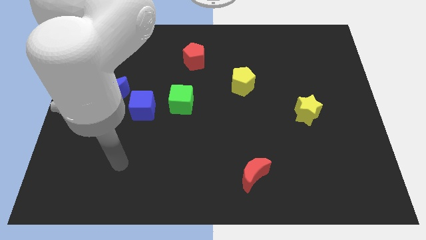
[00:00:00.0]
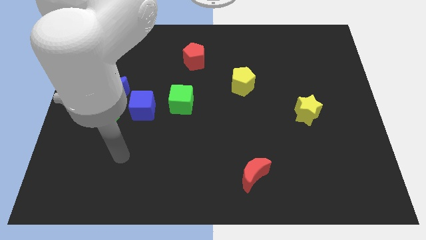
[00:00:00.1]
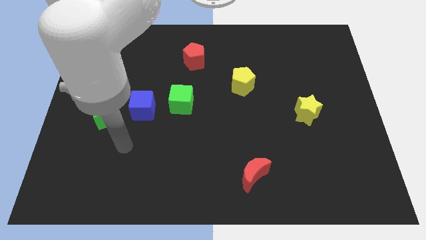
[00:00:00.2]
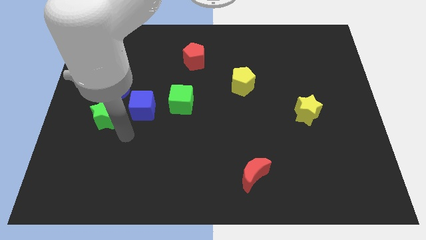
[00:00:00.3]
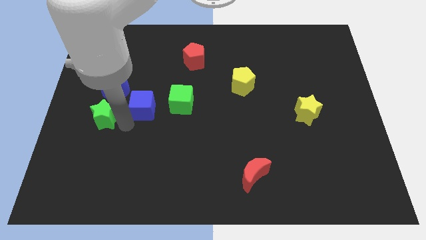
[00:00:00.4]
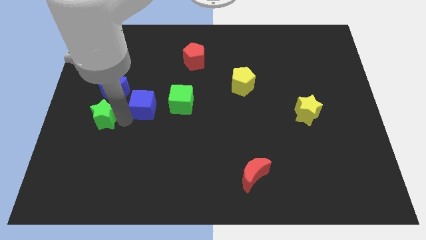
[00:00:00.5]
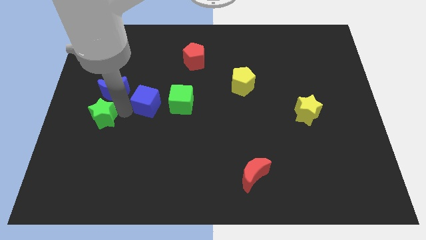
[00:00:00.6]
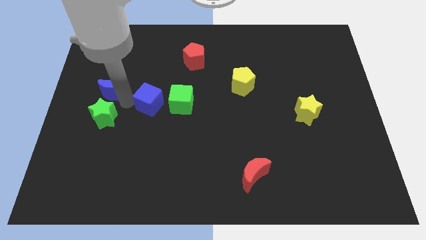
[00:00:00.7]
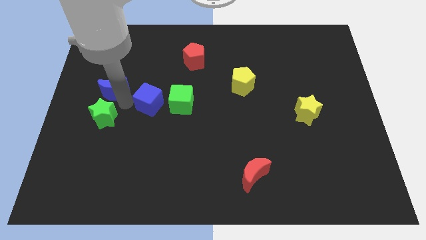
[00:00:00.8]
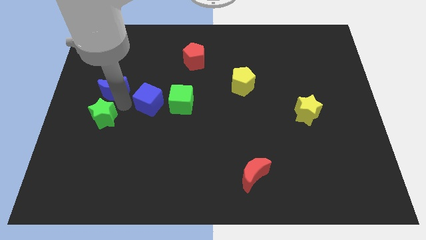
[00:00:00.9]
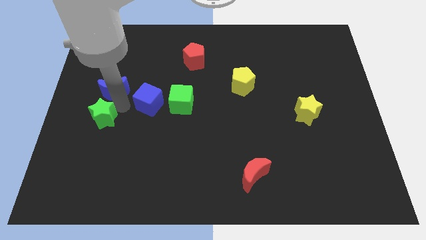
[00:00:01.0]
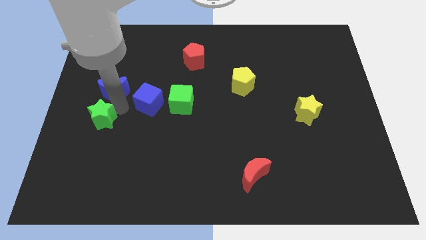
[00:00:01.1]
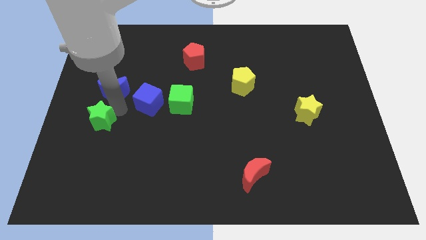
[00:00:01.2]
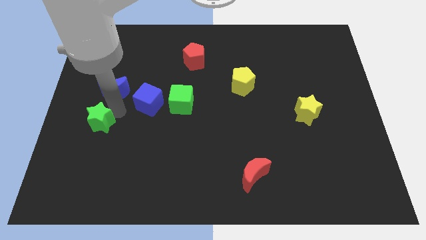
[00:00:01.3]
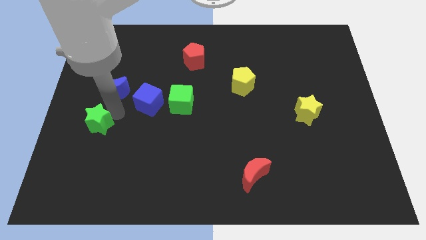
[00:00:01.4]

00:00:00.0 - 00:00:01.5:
pull the green star apart from the blue moon and blue cube

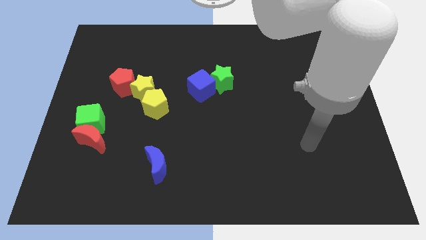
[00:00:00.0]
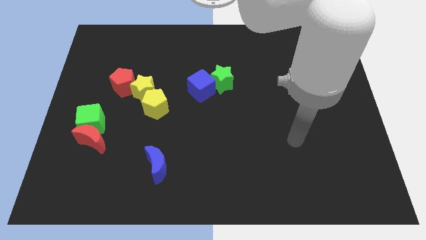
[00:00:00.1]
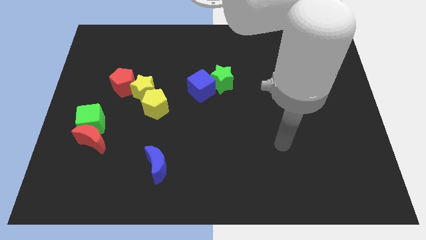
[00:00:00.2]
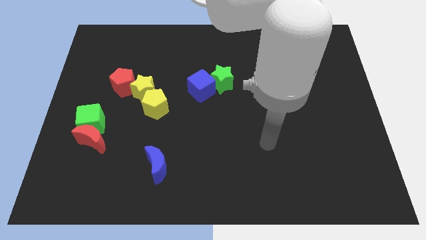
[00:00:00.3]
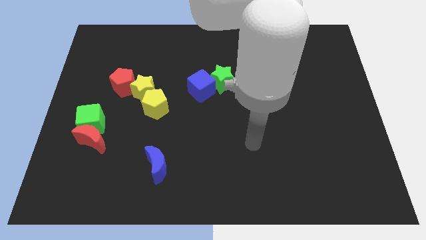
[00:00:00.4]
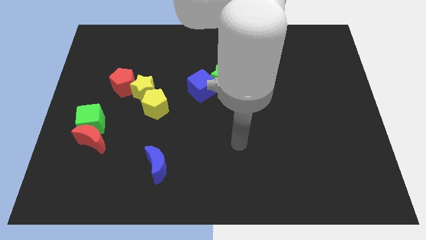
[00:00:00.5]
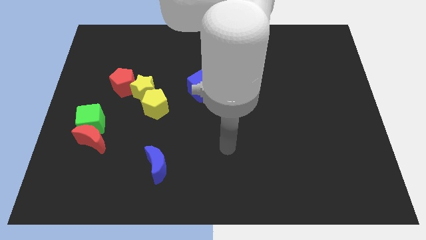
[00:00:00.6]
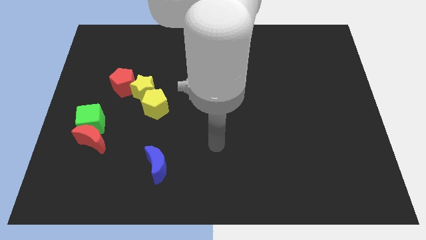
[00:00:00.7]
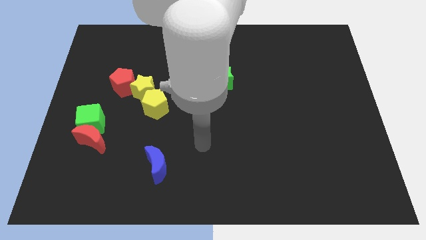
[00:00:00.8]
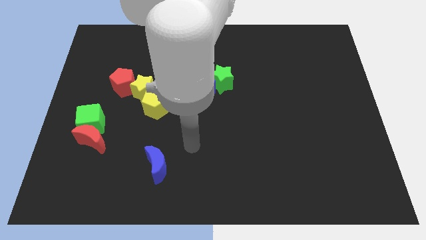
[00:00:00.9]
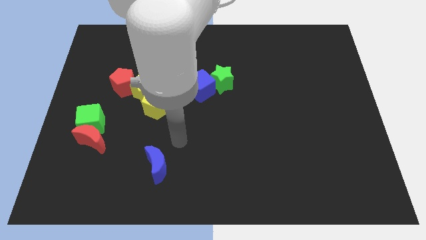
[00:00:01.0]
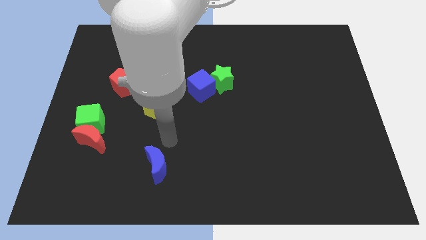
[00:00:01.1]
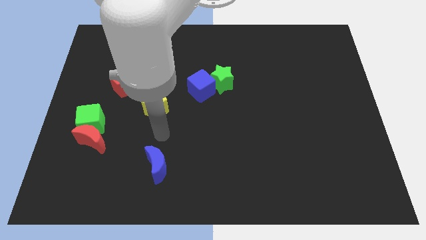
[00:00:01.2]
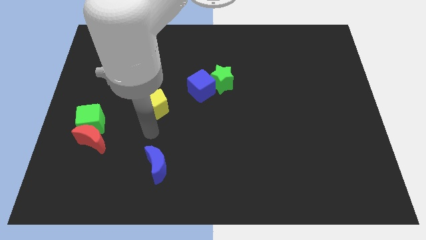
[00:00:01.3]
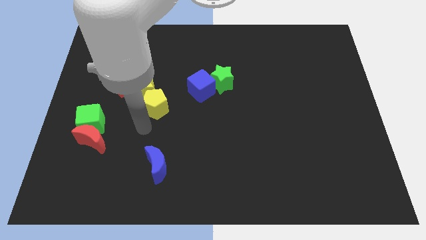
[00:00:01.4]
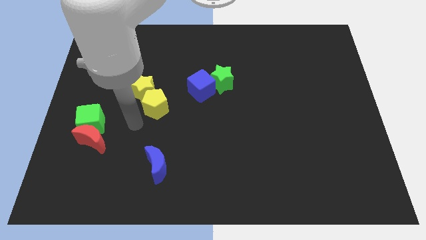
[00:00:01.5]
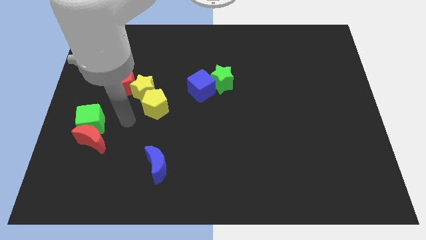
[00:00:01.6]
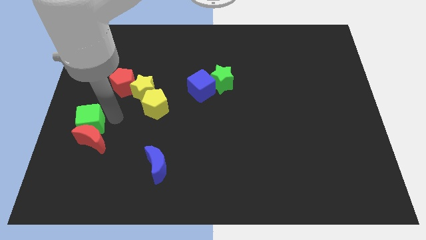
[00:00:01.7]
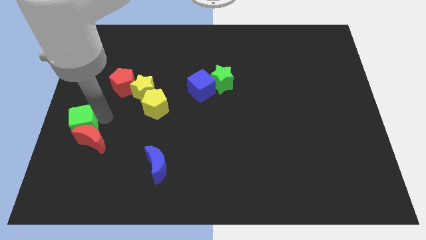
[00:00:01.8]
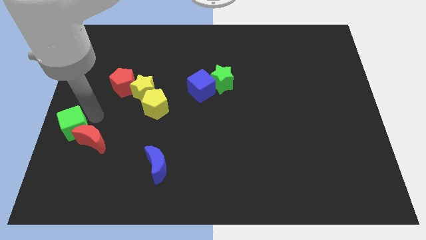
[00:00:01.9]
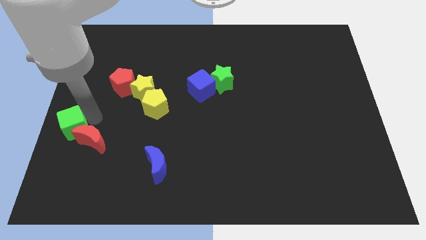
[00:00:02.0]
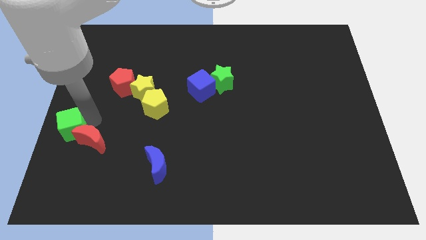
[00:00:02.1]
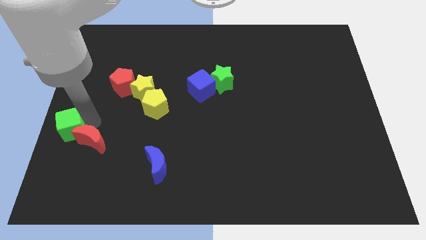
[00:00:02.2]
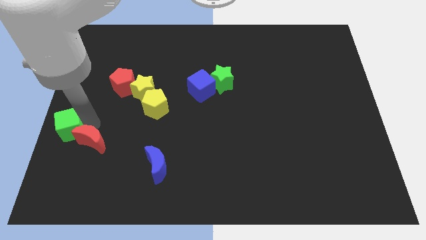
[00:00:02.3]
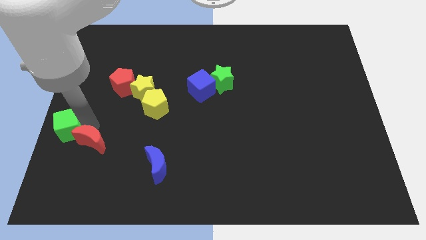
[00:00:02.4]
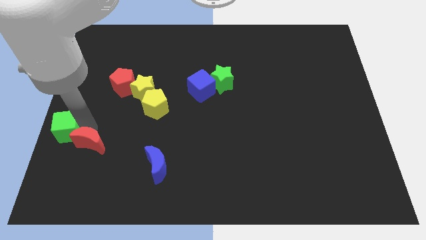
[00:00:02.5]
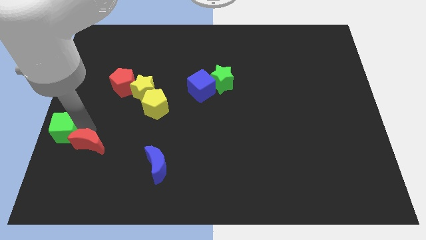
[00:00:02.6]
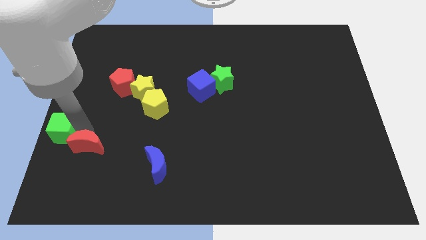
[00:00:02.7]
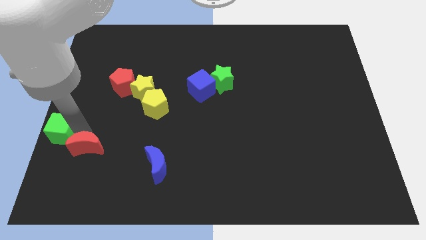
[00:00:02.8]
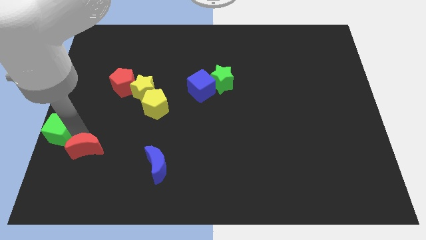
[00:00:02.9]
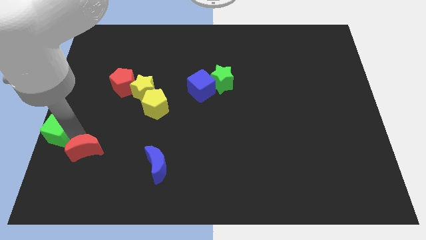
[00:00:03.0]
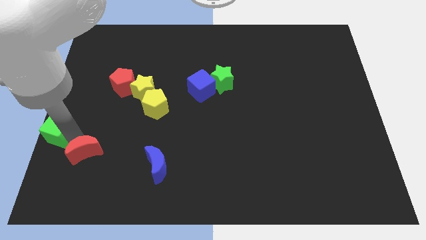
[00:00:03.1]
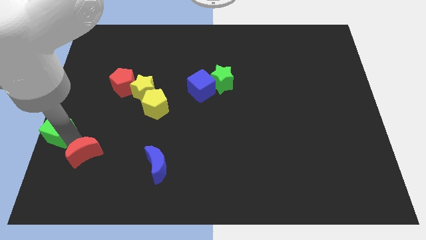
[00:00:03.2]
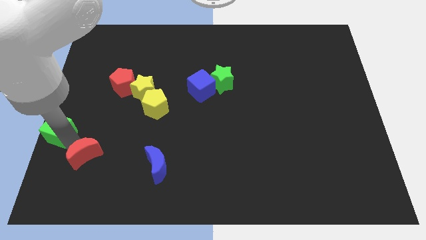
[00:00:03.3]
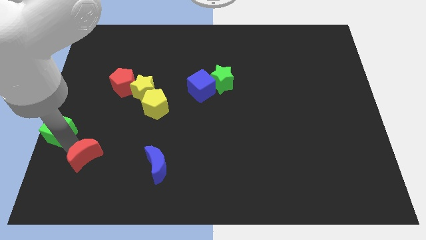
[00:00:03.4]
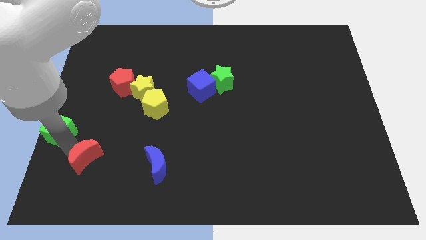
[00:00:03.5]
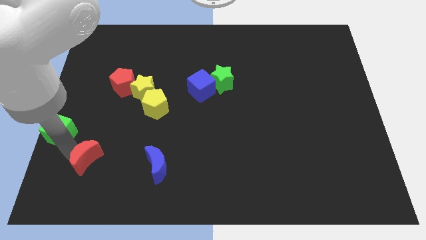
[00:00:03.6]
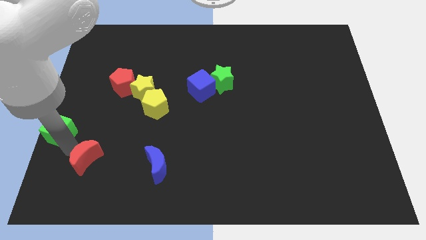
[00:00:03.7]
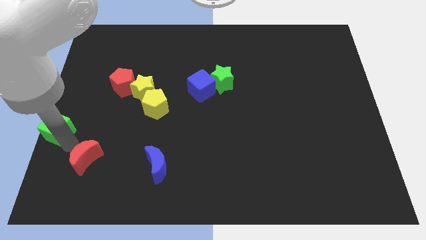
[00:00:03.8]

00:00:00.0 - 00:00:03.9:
separate the red moon from the green cube

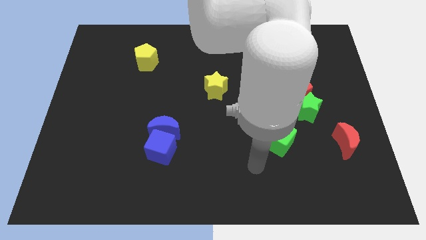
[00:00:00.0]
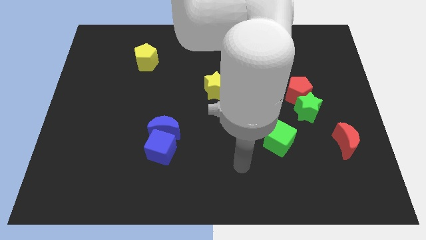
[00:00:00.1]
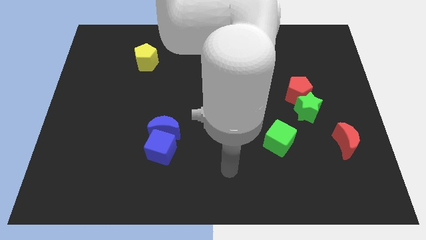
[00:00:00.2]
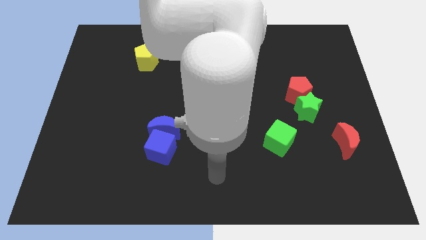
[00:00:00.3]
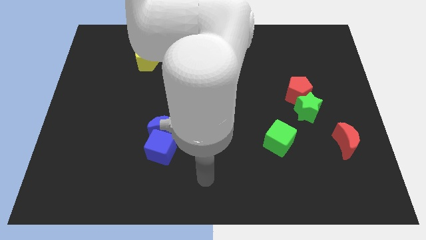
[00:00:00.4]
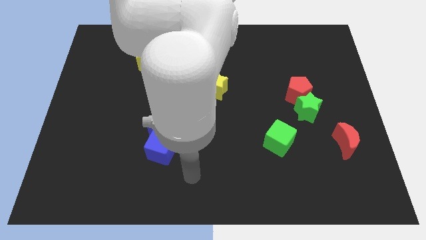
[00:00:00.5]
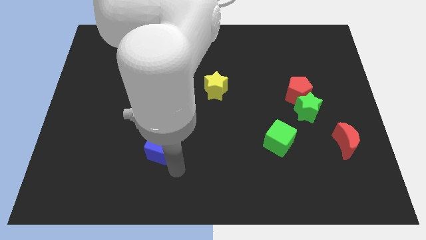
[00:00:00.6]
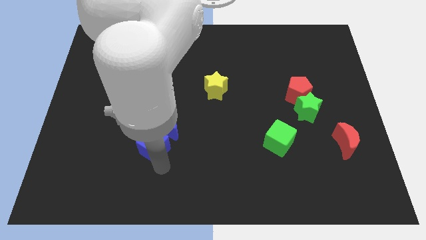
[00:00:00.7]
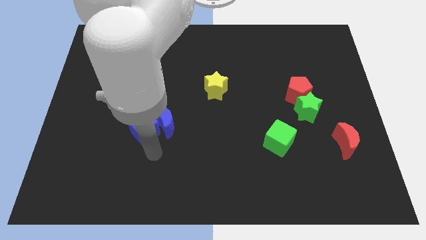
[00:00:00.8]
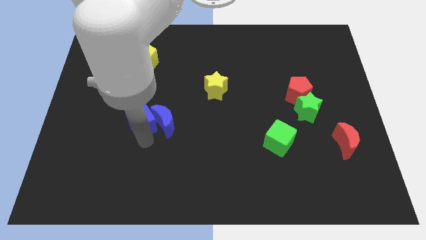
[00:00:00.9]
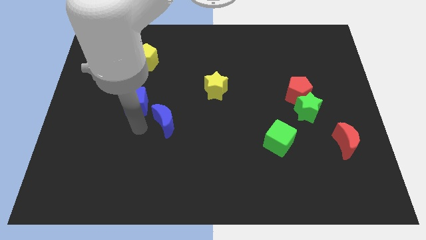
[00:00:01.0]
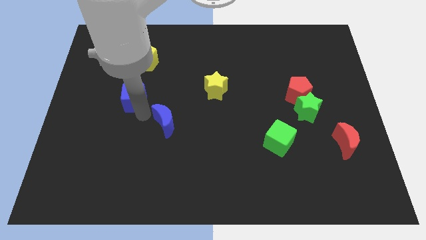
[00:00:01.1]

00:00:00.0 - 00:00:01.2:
move the blue moon away from the blue cube

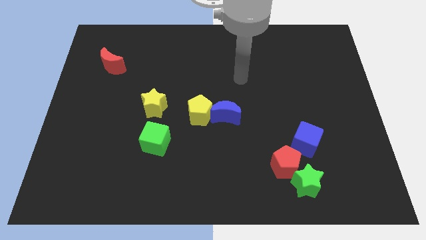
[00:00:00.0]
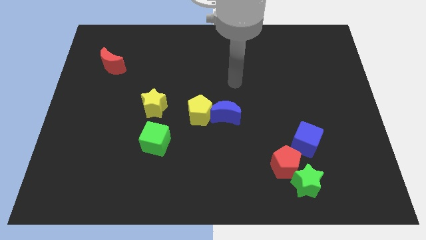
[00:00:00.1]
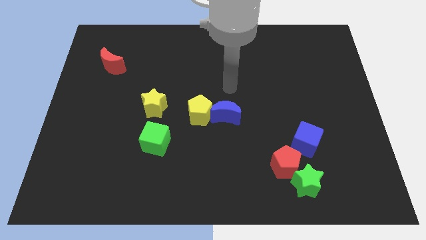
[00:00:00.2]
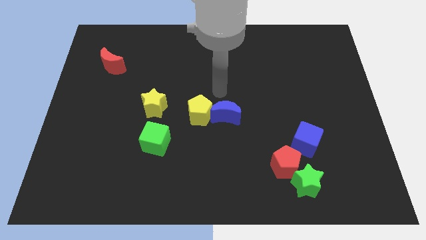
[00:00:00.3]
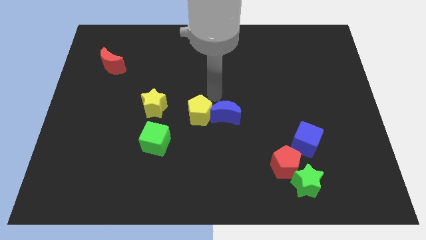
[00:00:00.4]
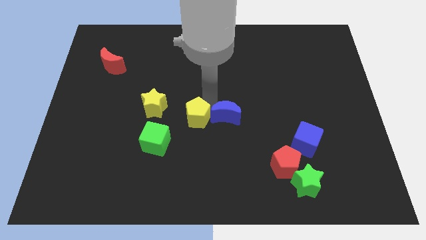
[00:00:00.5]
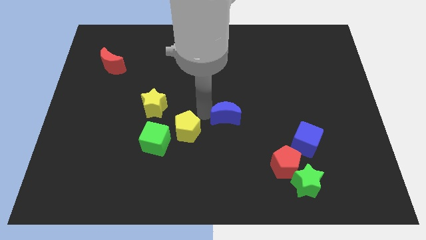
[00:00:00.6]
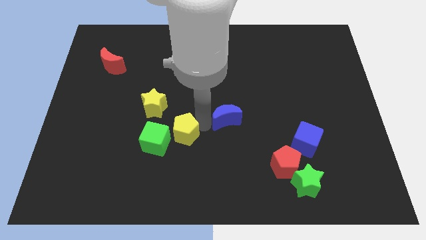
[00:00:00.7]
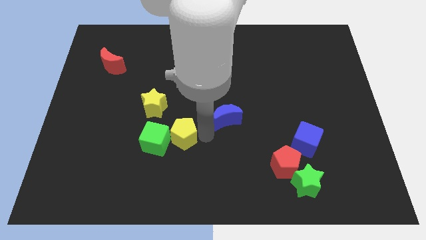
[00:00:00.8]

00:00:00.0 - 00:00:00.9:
pull the blue moon apart from the yellow pentagon

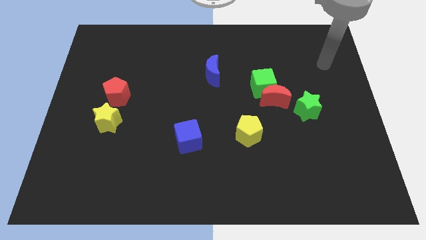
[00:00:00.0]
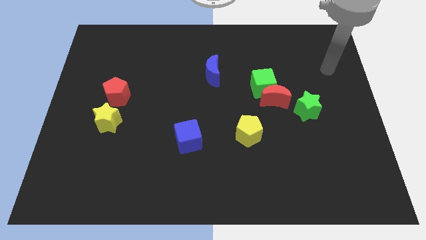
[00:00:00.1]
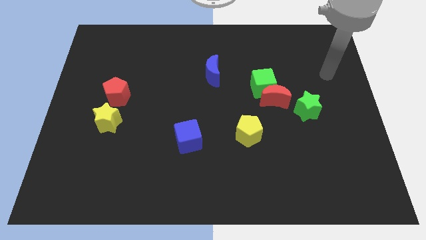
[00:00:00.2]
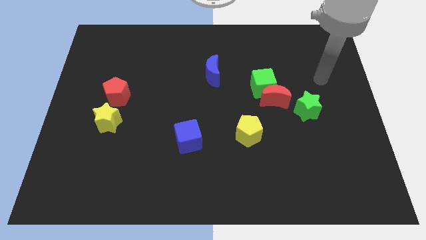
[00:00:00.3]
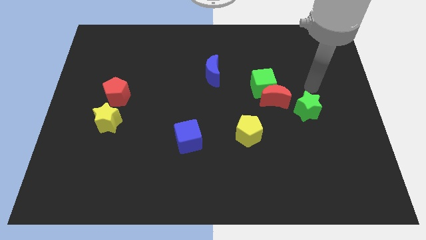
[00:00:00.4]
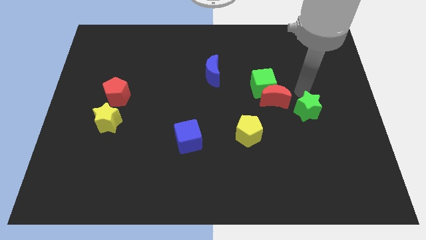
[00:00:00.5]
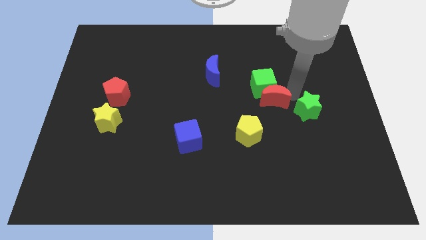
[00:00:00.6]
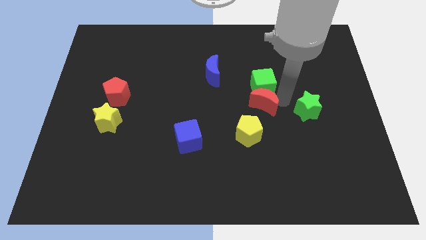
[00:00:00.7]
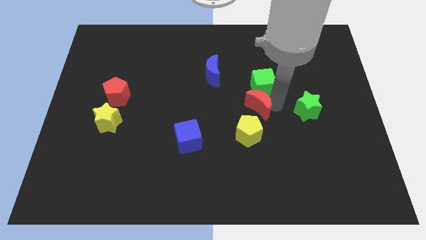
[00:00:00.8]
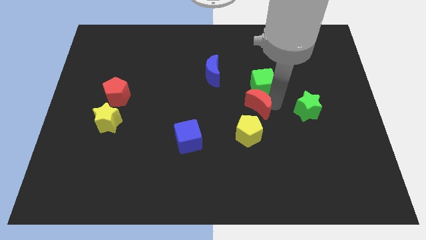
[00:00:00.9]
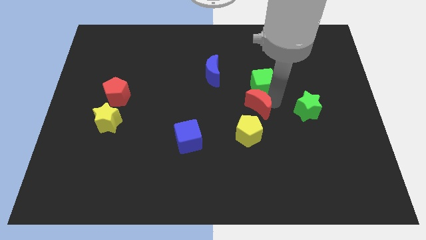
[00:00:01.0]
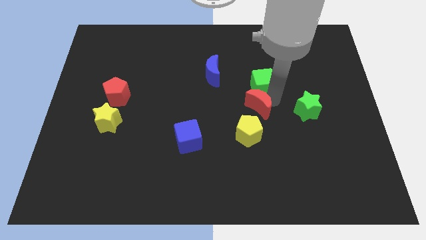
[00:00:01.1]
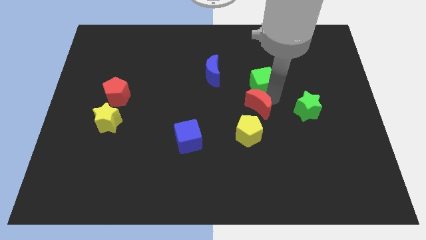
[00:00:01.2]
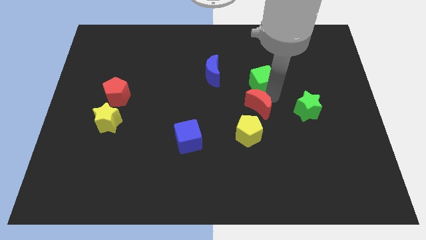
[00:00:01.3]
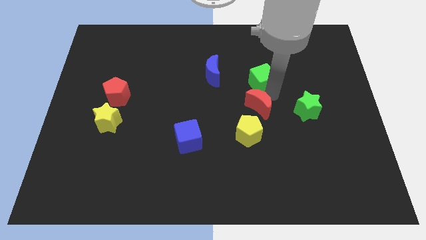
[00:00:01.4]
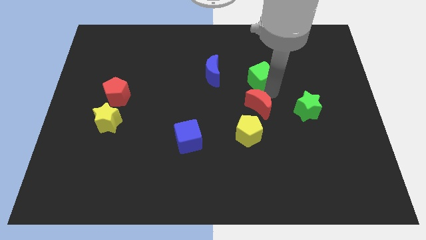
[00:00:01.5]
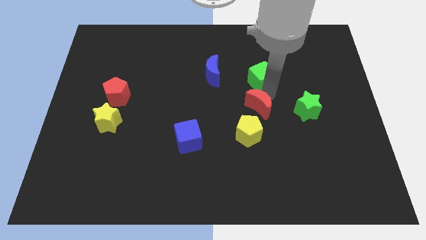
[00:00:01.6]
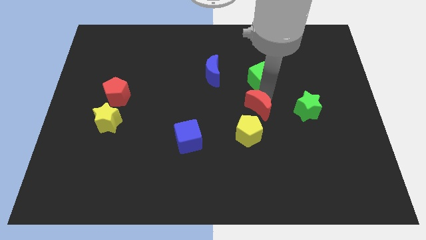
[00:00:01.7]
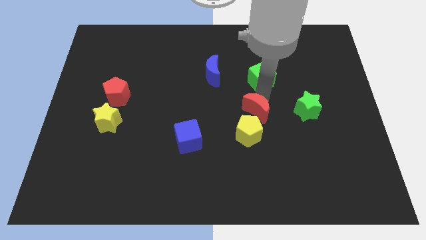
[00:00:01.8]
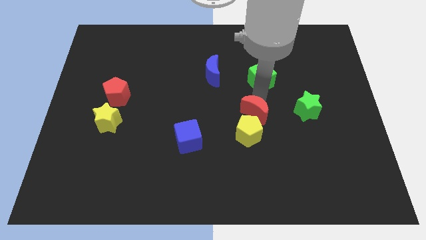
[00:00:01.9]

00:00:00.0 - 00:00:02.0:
separate the green cube from the red moon
